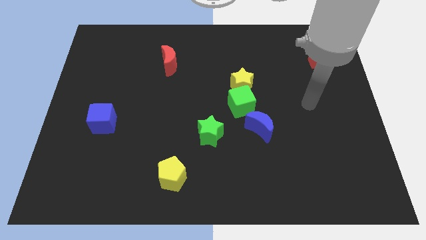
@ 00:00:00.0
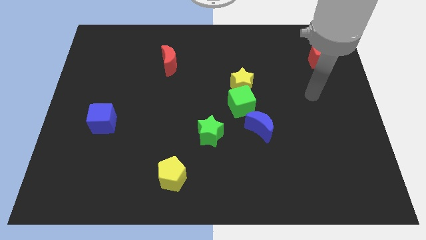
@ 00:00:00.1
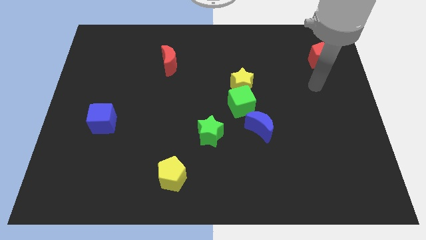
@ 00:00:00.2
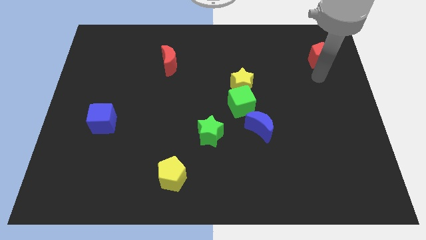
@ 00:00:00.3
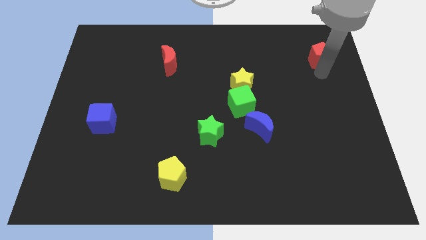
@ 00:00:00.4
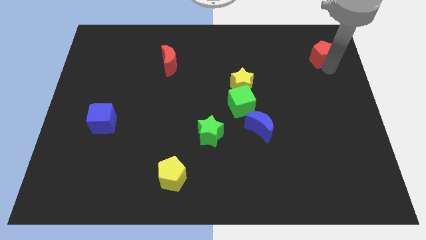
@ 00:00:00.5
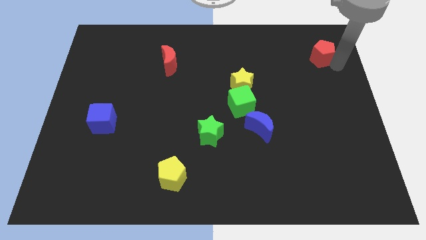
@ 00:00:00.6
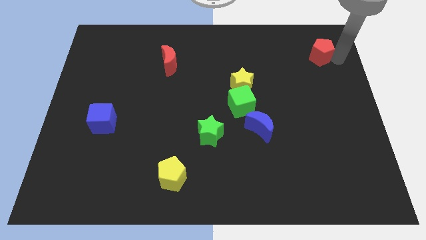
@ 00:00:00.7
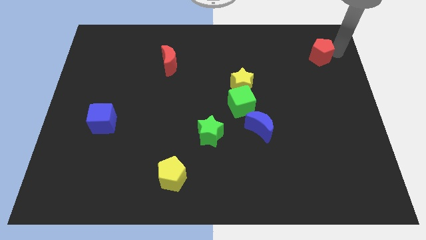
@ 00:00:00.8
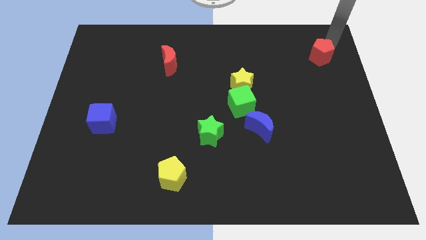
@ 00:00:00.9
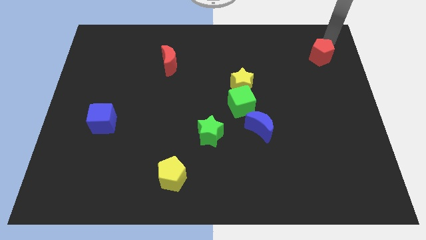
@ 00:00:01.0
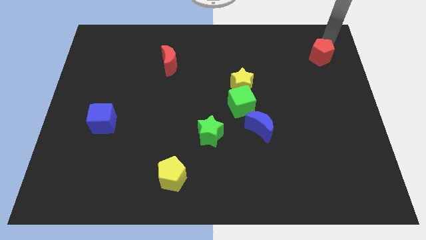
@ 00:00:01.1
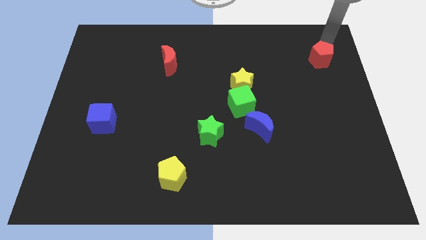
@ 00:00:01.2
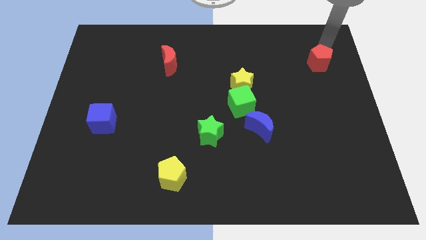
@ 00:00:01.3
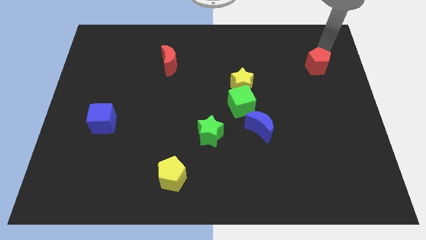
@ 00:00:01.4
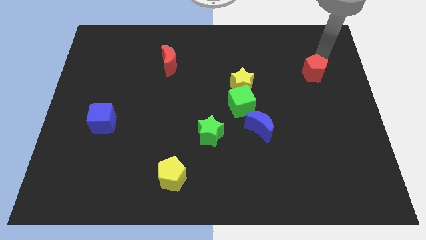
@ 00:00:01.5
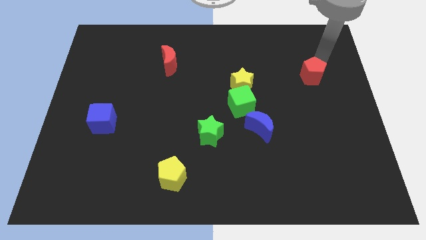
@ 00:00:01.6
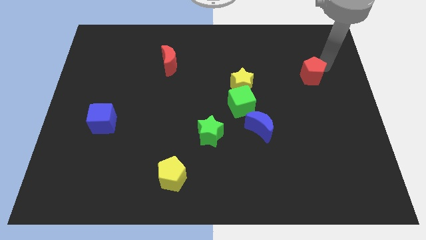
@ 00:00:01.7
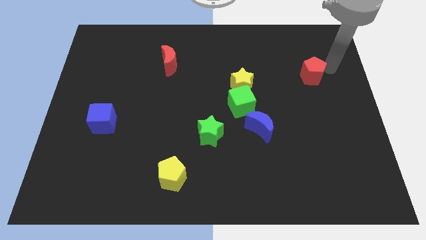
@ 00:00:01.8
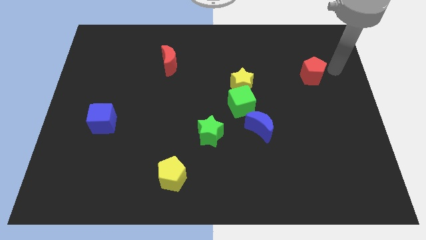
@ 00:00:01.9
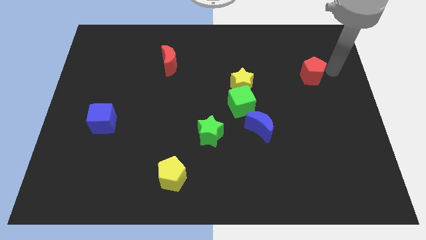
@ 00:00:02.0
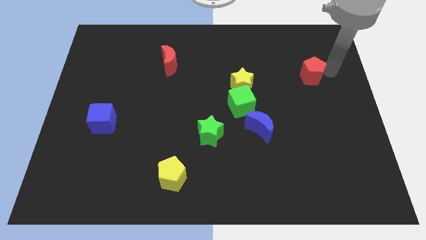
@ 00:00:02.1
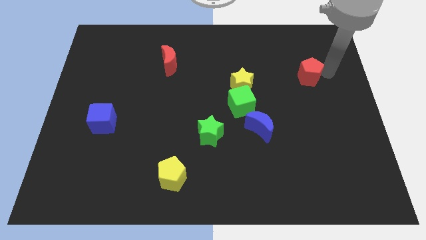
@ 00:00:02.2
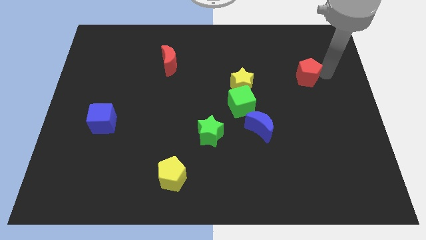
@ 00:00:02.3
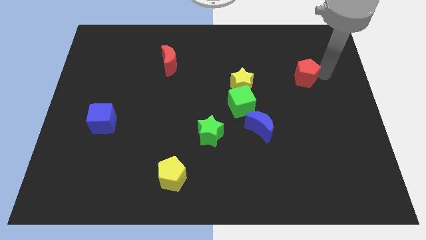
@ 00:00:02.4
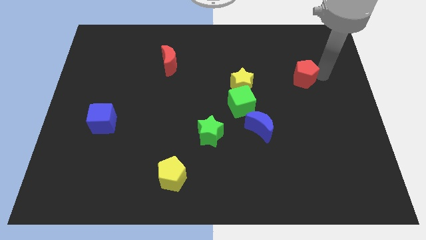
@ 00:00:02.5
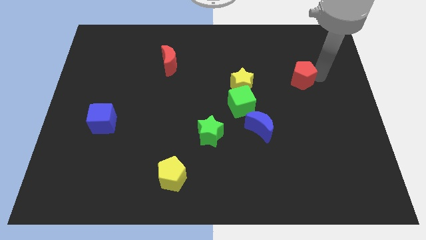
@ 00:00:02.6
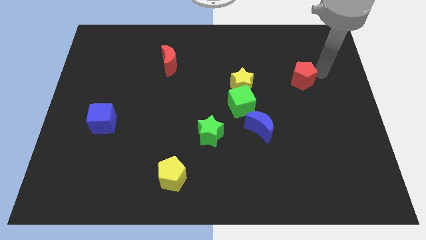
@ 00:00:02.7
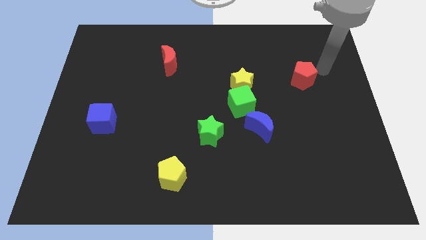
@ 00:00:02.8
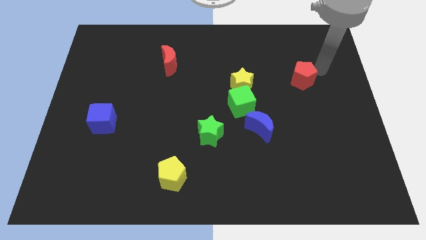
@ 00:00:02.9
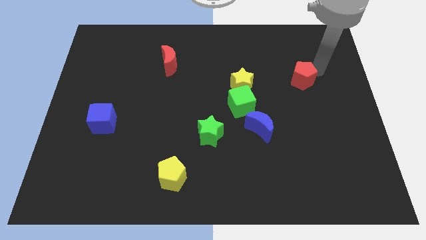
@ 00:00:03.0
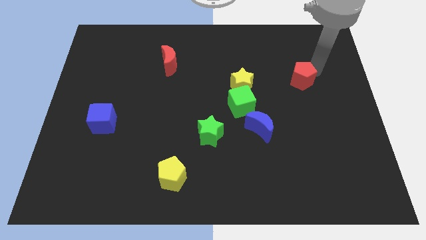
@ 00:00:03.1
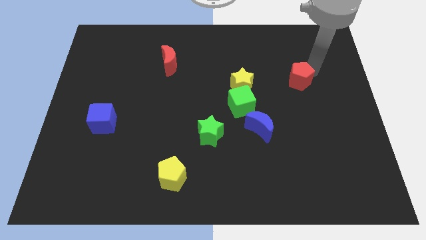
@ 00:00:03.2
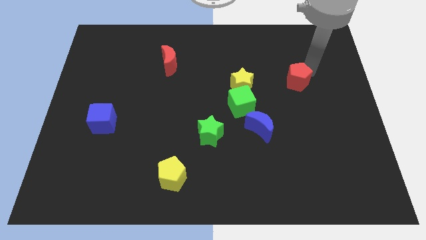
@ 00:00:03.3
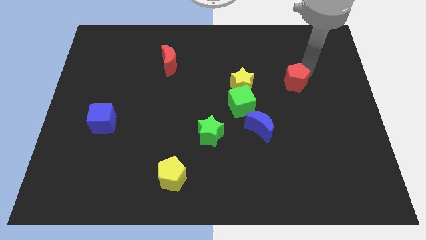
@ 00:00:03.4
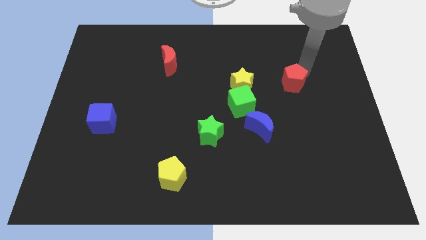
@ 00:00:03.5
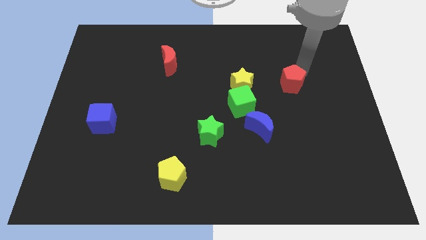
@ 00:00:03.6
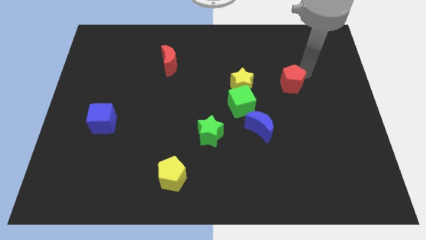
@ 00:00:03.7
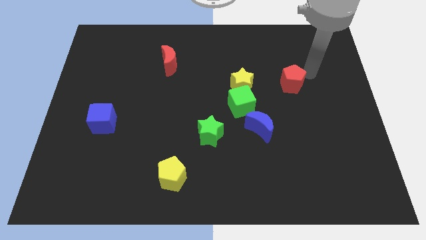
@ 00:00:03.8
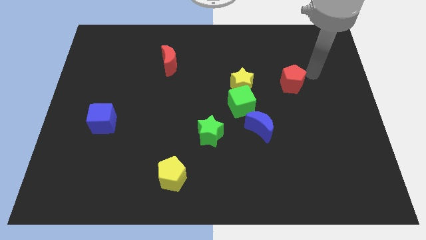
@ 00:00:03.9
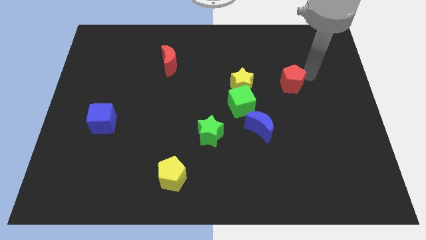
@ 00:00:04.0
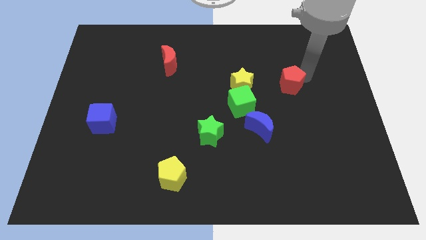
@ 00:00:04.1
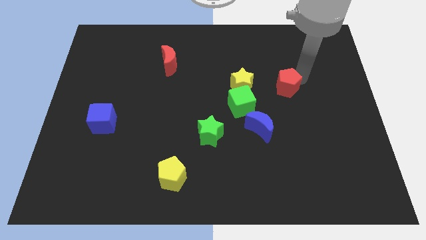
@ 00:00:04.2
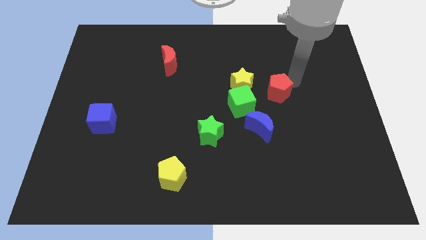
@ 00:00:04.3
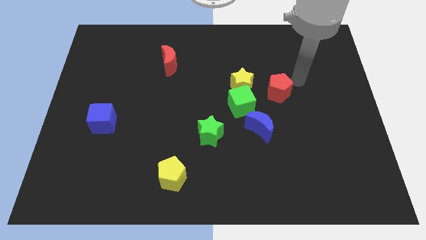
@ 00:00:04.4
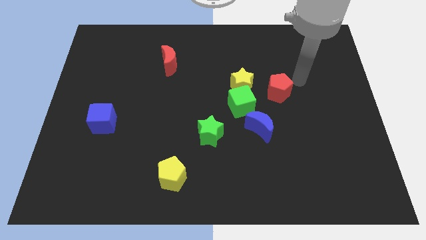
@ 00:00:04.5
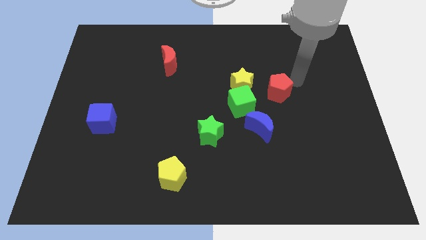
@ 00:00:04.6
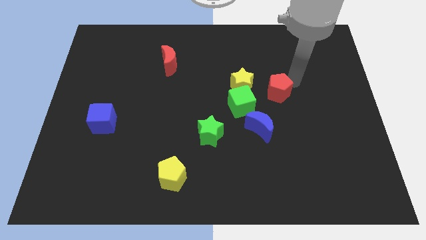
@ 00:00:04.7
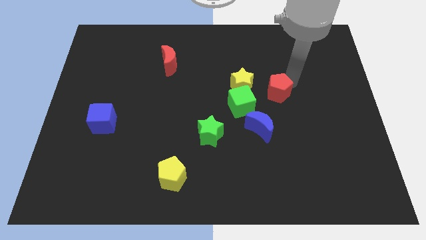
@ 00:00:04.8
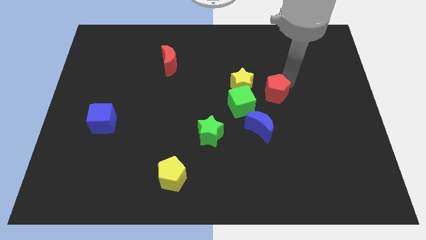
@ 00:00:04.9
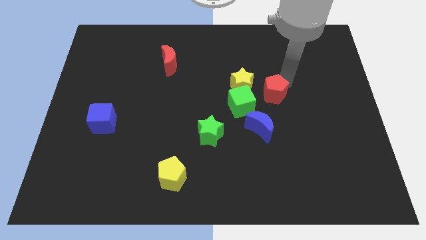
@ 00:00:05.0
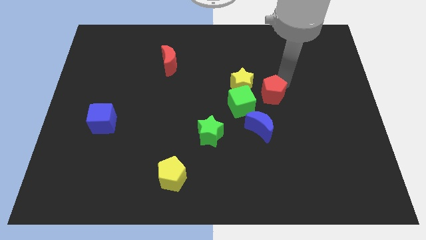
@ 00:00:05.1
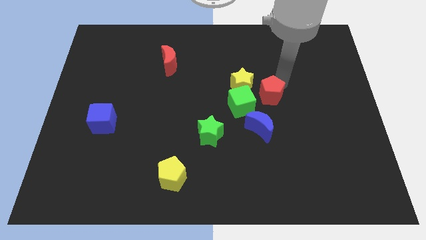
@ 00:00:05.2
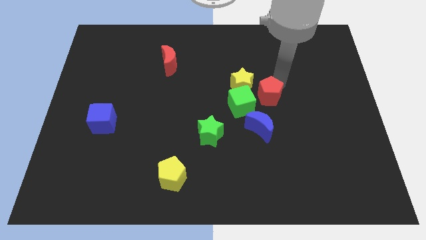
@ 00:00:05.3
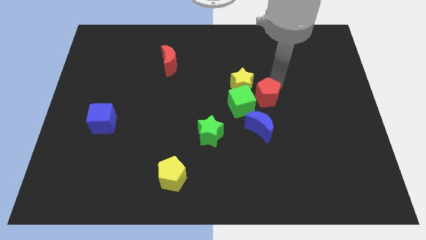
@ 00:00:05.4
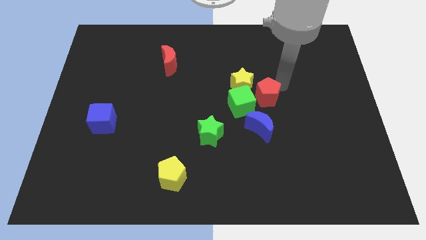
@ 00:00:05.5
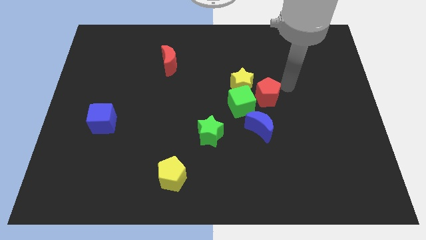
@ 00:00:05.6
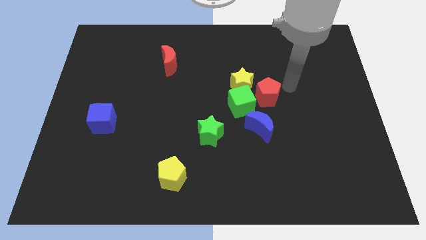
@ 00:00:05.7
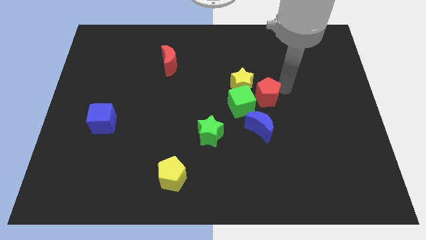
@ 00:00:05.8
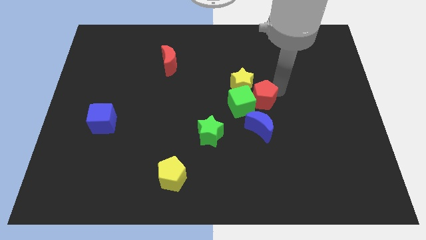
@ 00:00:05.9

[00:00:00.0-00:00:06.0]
slide the red pentagon towards the green cube

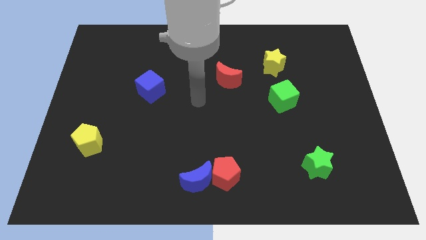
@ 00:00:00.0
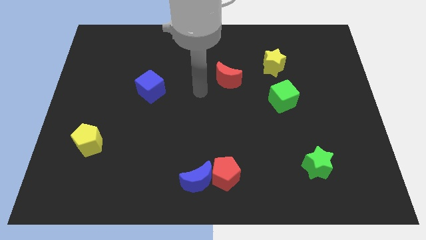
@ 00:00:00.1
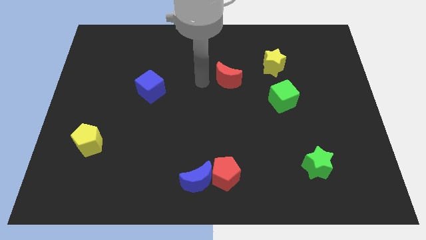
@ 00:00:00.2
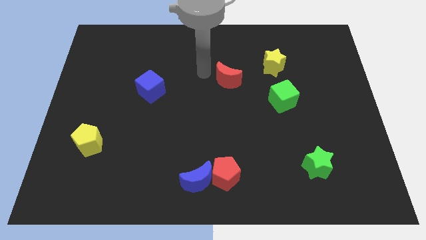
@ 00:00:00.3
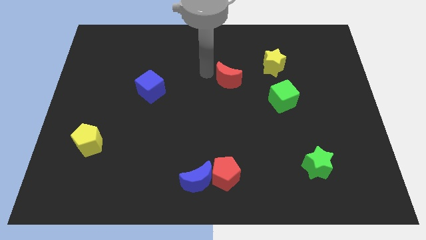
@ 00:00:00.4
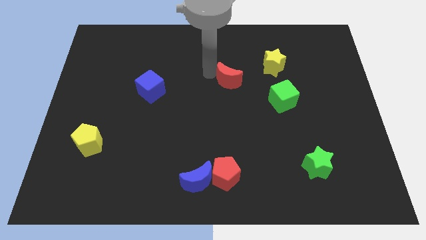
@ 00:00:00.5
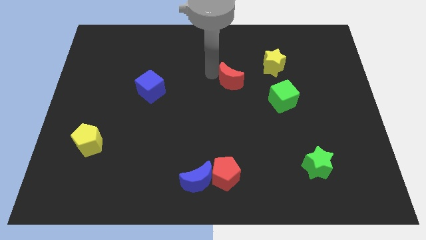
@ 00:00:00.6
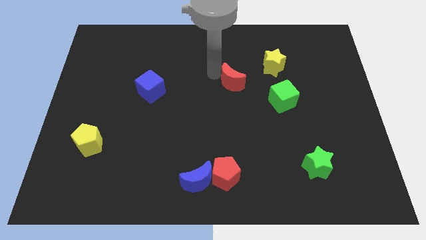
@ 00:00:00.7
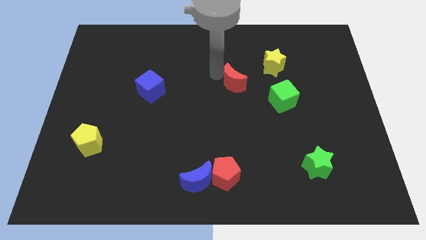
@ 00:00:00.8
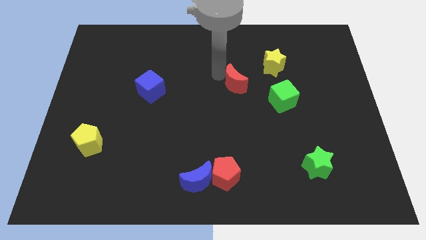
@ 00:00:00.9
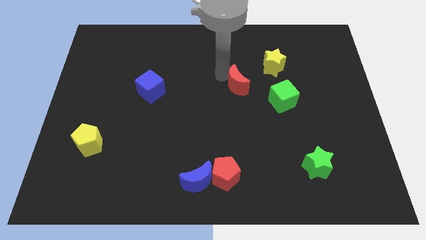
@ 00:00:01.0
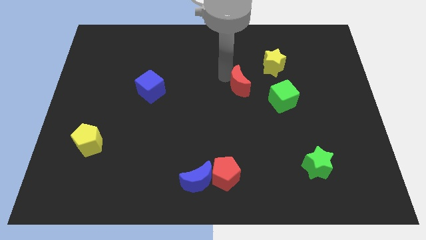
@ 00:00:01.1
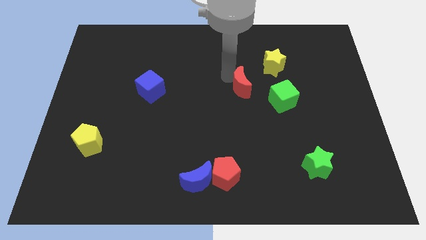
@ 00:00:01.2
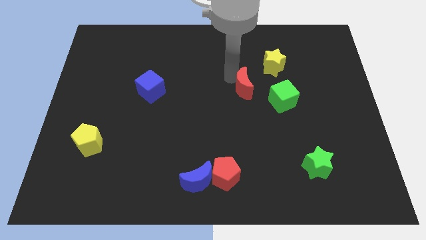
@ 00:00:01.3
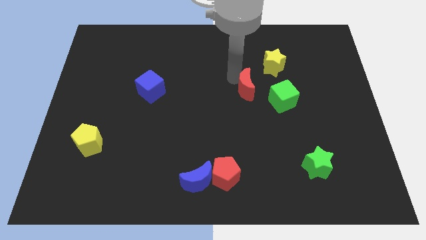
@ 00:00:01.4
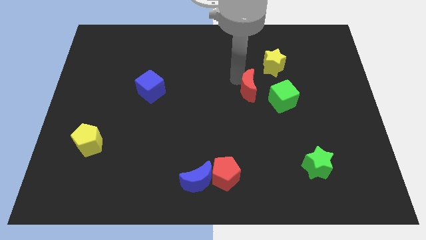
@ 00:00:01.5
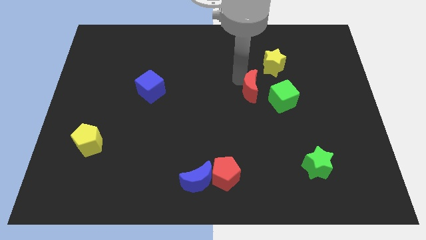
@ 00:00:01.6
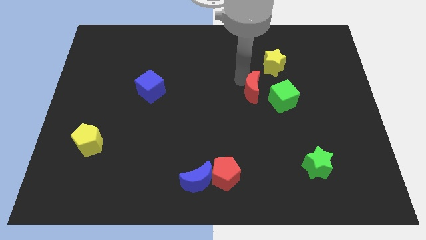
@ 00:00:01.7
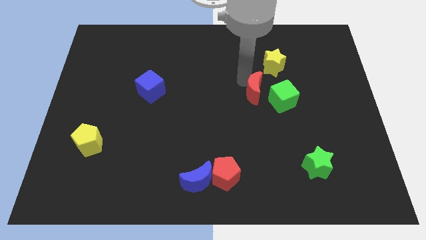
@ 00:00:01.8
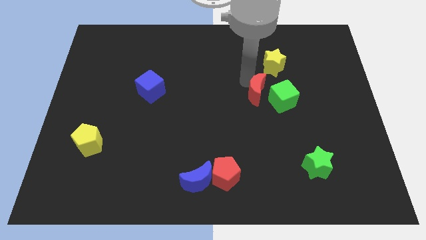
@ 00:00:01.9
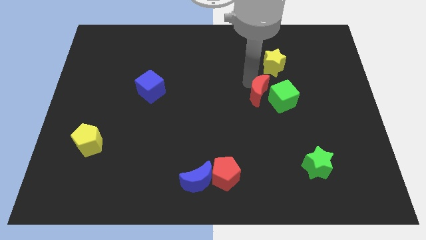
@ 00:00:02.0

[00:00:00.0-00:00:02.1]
push the red moon next to the green cube
